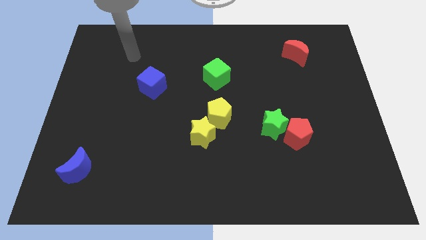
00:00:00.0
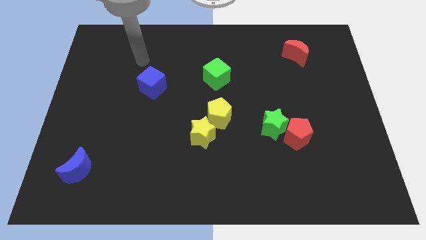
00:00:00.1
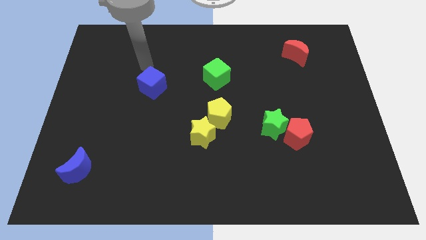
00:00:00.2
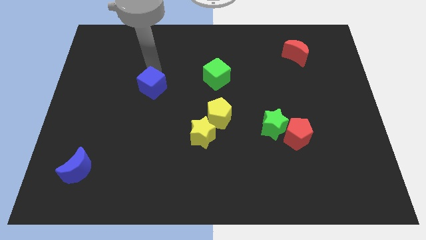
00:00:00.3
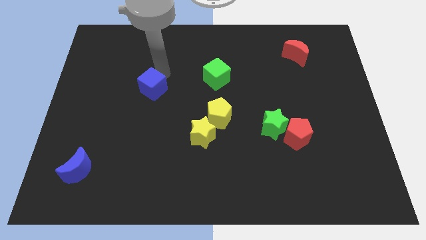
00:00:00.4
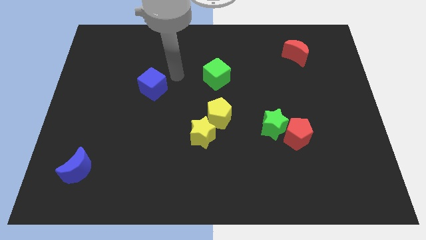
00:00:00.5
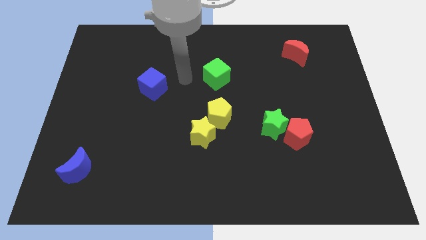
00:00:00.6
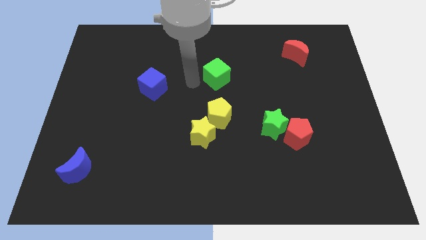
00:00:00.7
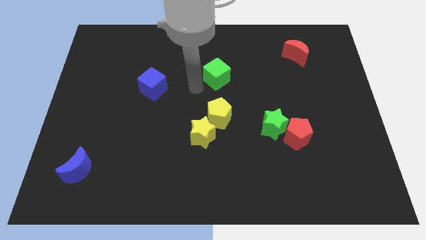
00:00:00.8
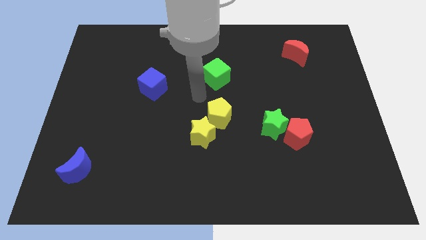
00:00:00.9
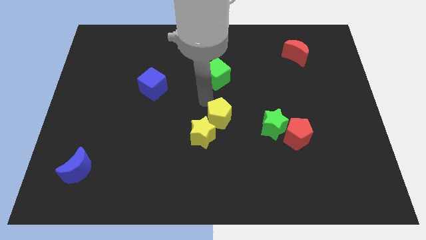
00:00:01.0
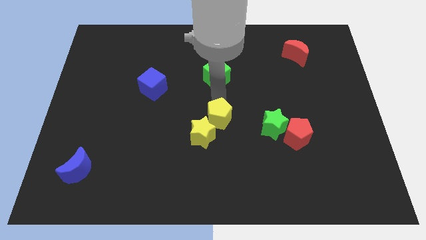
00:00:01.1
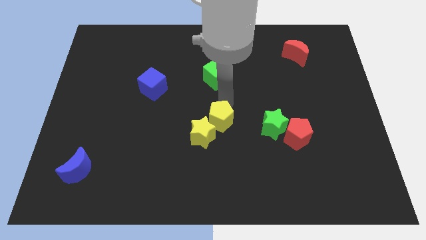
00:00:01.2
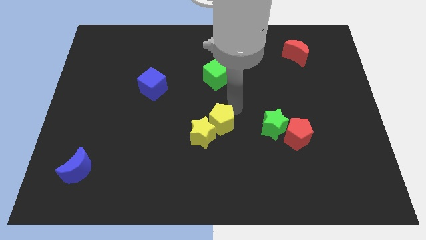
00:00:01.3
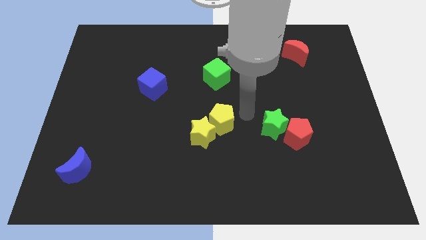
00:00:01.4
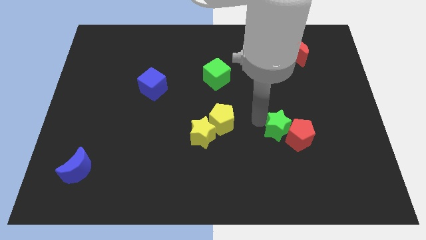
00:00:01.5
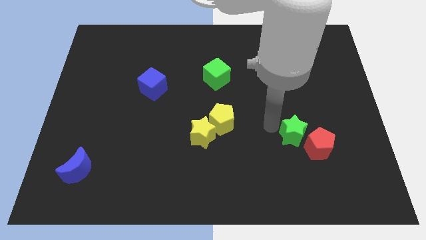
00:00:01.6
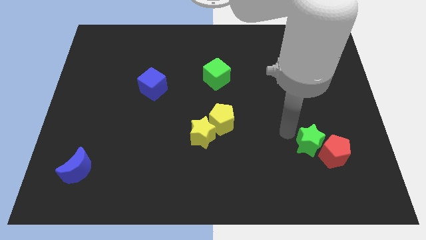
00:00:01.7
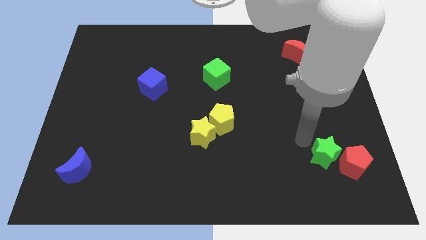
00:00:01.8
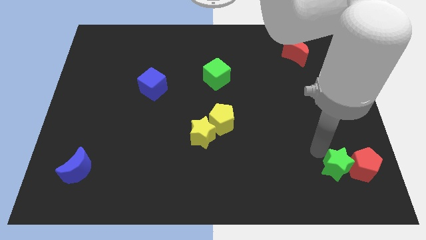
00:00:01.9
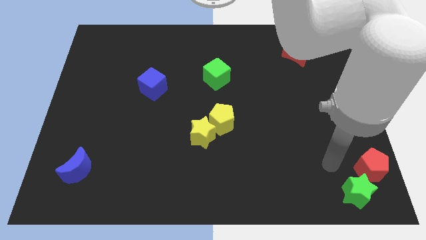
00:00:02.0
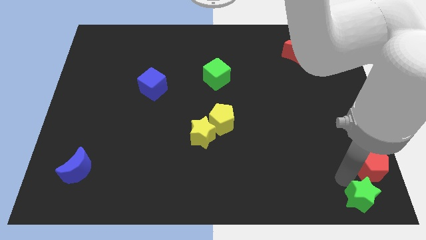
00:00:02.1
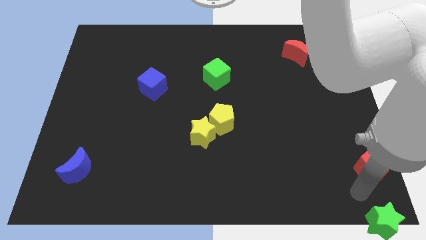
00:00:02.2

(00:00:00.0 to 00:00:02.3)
move the red pentagon away from the green star

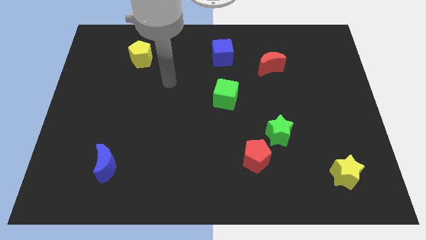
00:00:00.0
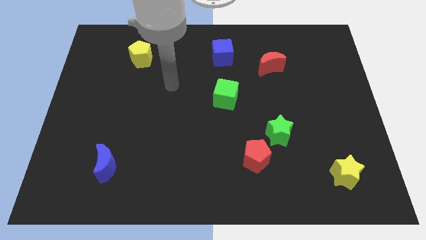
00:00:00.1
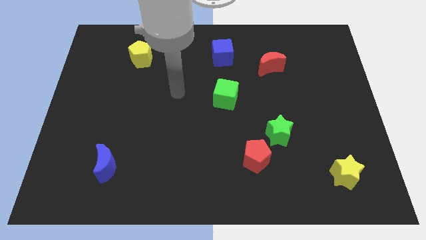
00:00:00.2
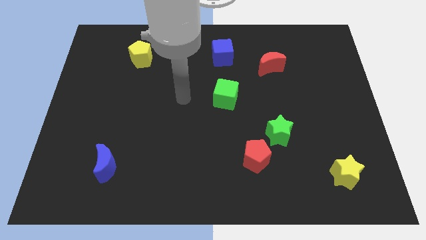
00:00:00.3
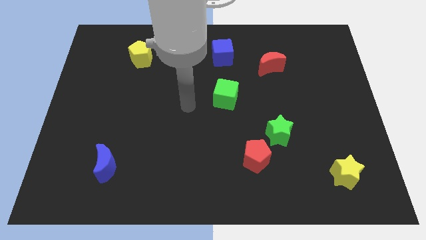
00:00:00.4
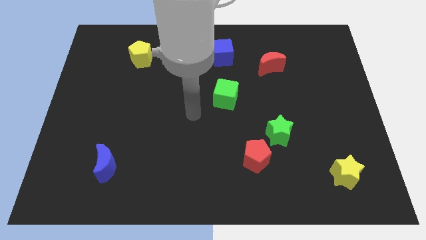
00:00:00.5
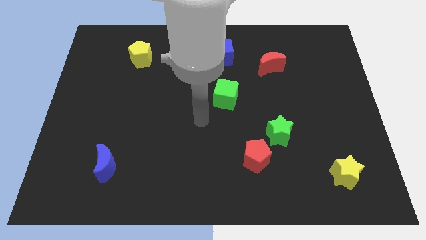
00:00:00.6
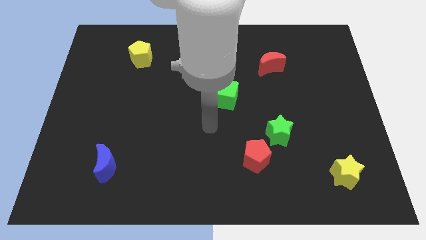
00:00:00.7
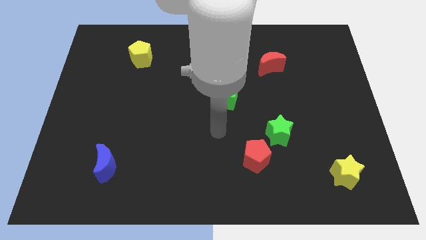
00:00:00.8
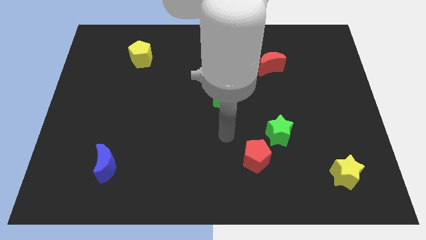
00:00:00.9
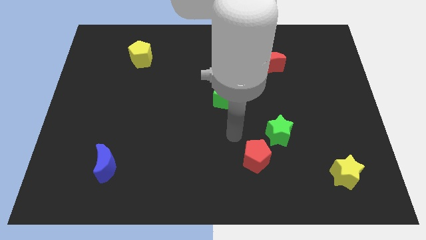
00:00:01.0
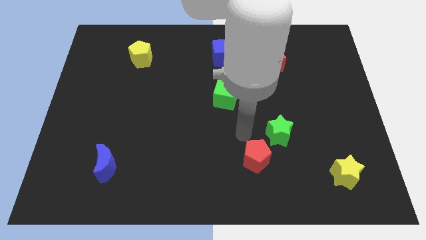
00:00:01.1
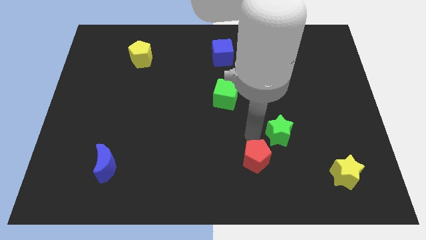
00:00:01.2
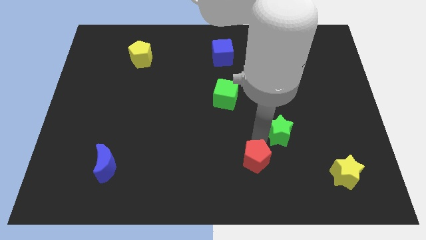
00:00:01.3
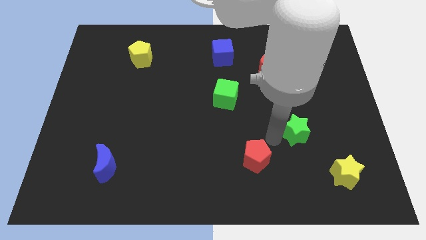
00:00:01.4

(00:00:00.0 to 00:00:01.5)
separate the red pentagon from the green star

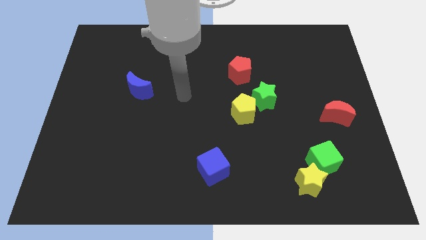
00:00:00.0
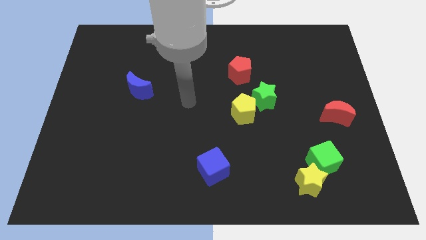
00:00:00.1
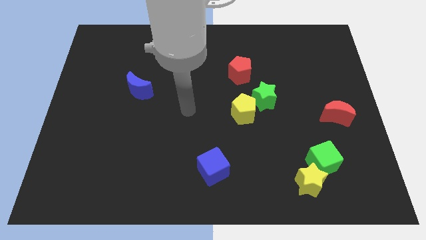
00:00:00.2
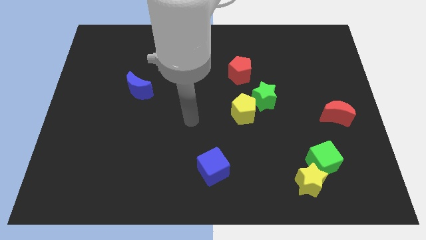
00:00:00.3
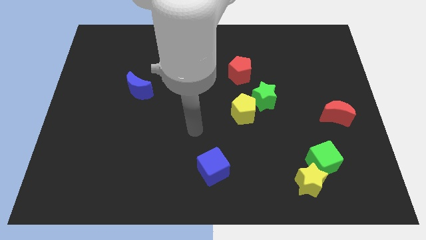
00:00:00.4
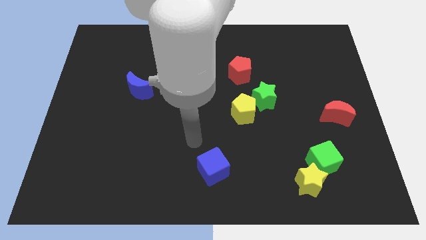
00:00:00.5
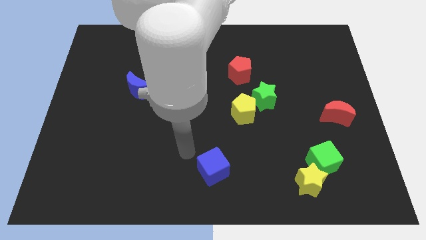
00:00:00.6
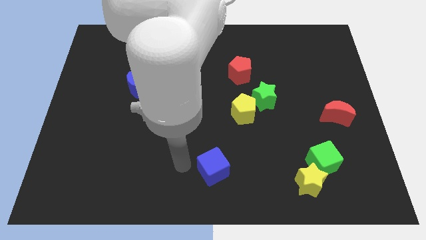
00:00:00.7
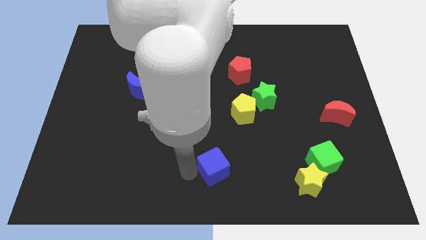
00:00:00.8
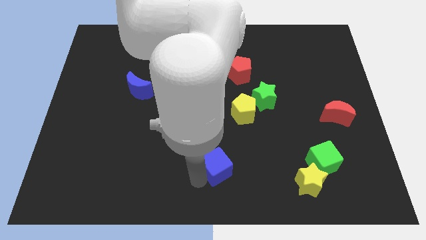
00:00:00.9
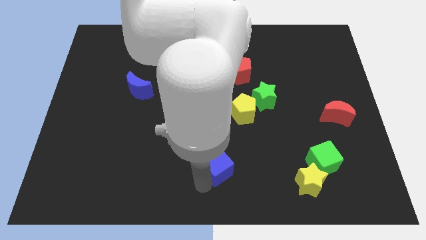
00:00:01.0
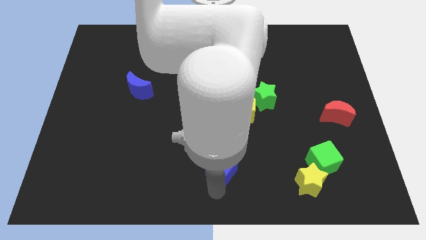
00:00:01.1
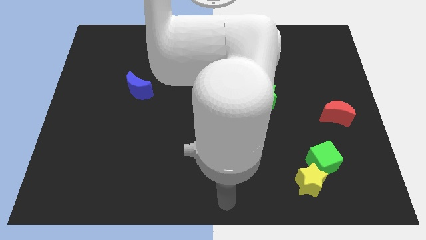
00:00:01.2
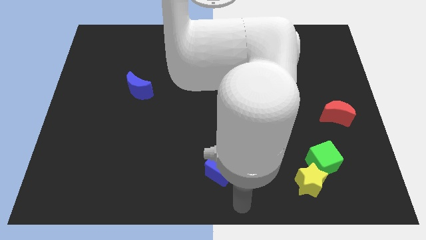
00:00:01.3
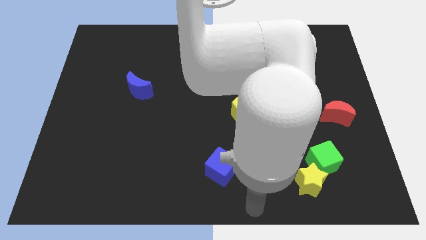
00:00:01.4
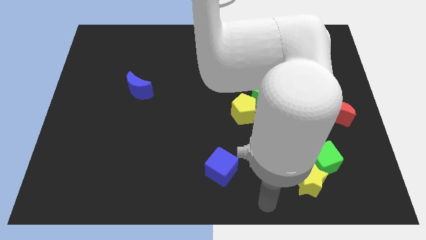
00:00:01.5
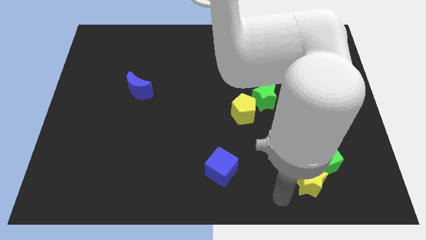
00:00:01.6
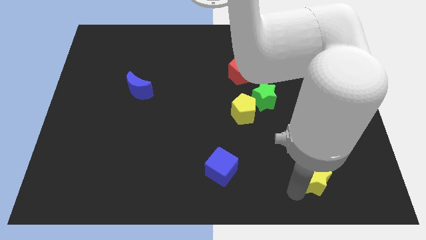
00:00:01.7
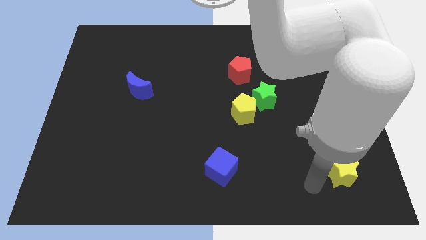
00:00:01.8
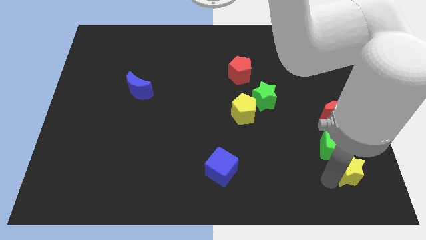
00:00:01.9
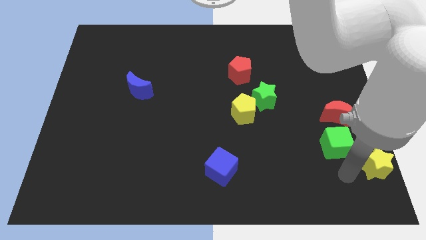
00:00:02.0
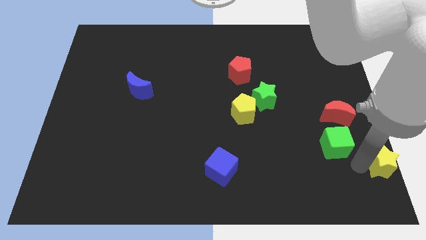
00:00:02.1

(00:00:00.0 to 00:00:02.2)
separate the green cube from the yellow star

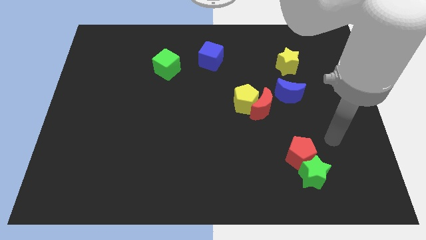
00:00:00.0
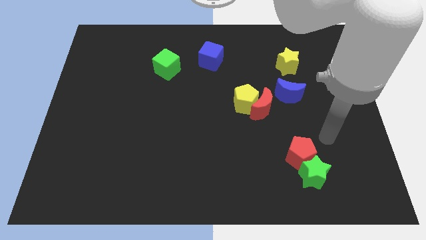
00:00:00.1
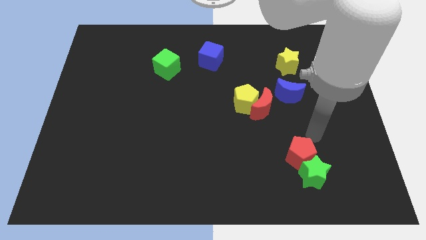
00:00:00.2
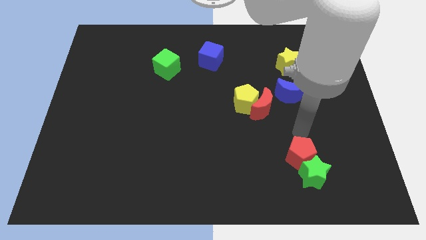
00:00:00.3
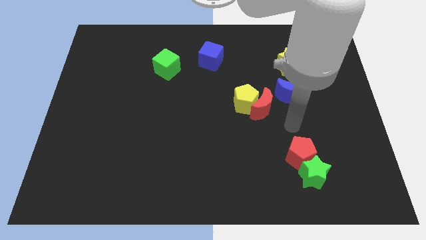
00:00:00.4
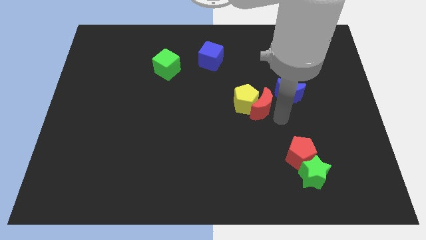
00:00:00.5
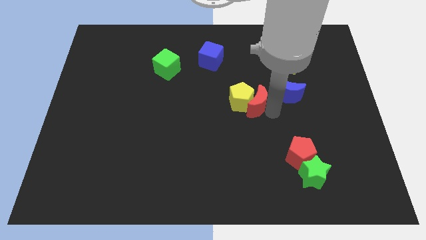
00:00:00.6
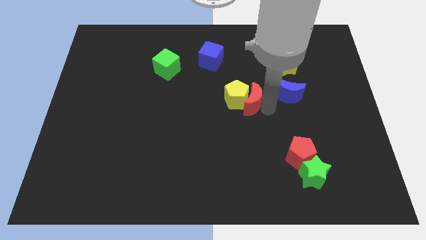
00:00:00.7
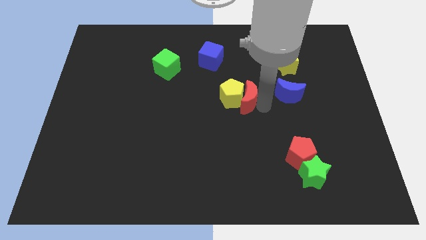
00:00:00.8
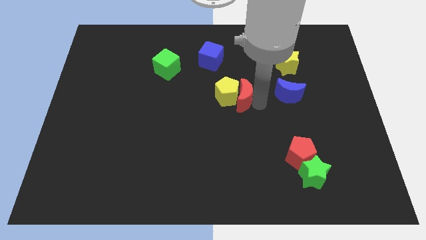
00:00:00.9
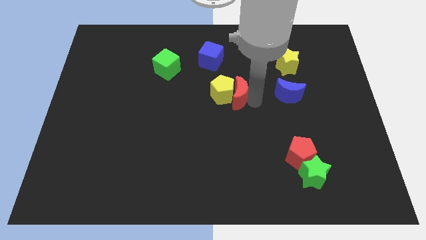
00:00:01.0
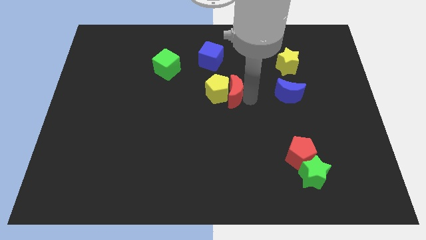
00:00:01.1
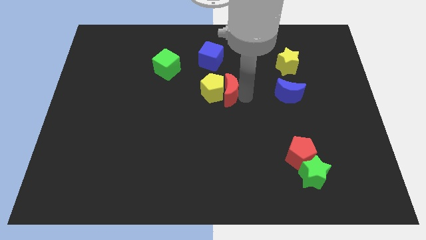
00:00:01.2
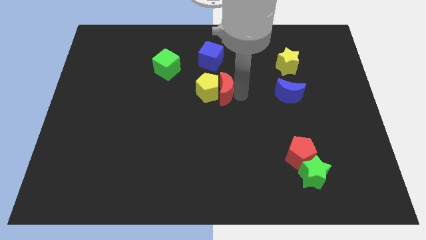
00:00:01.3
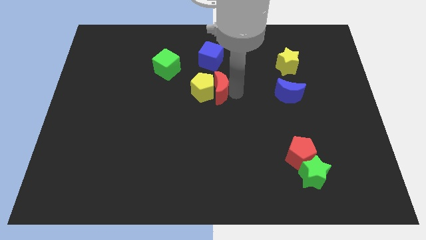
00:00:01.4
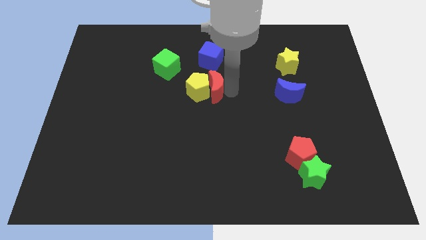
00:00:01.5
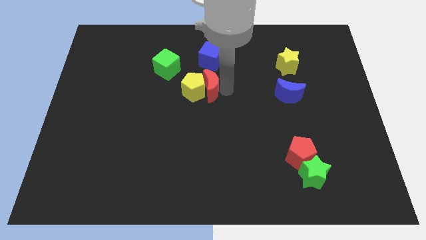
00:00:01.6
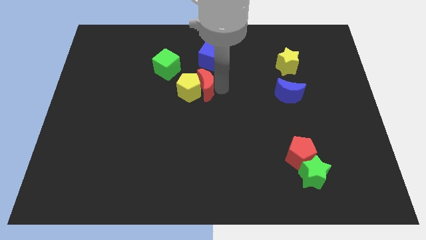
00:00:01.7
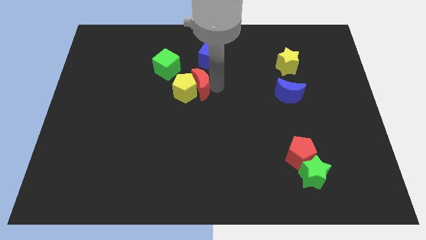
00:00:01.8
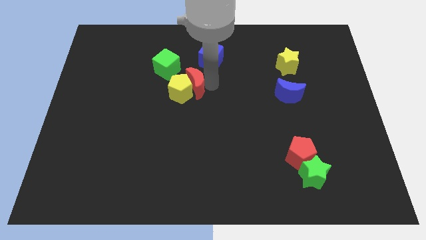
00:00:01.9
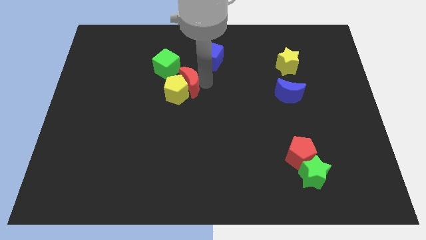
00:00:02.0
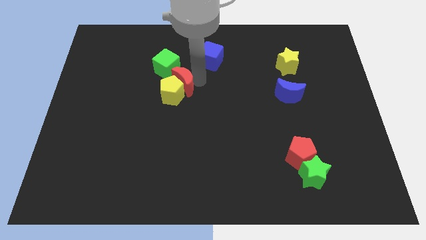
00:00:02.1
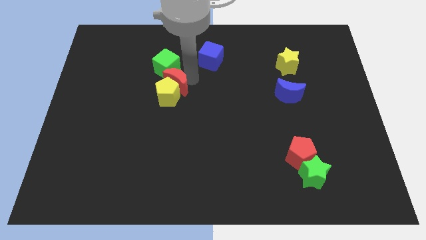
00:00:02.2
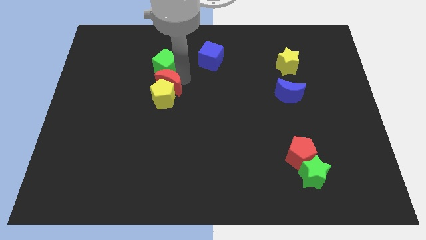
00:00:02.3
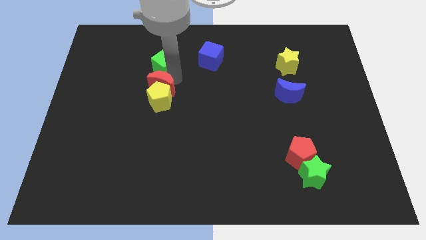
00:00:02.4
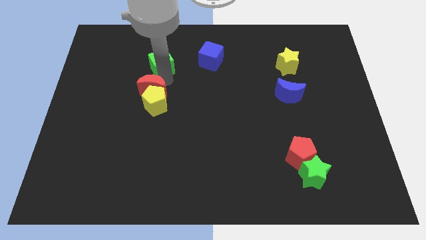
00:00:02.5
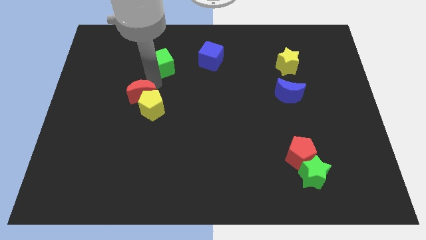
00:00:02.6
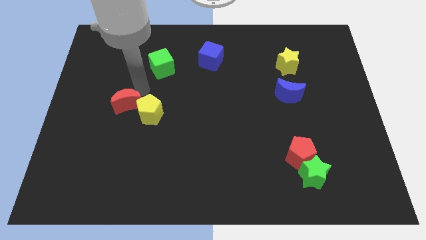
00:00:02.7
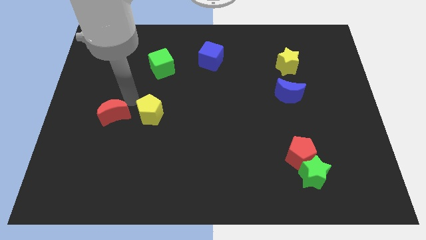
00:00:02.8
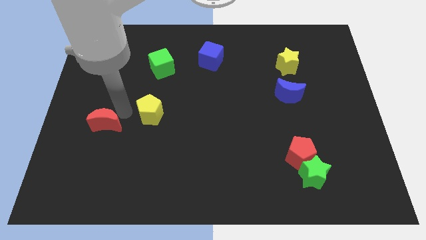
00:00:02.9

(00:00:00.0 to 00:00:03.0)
move the yellow pentagon away from the red moon

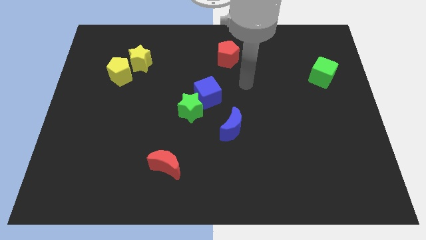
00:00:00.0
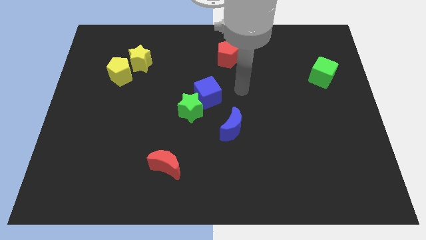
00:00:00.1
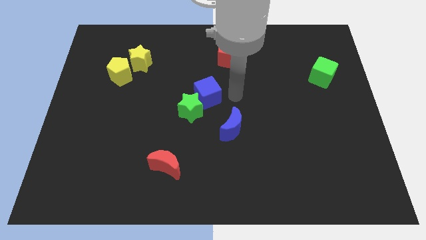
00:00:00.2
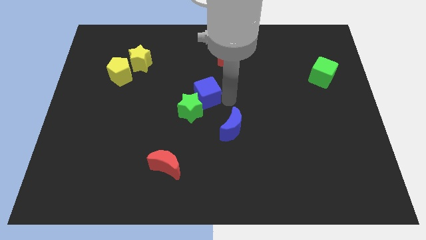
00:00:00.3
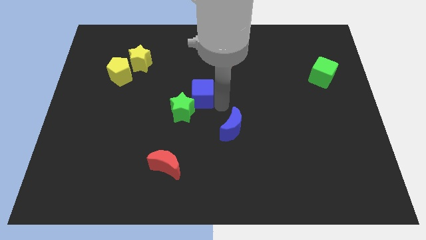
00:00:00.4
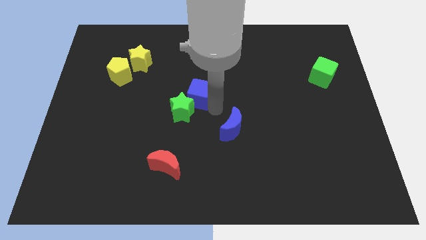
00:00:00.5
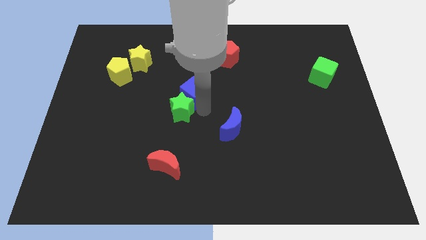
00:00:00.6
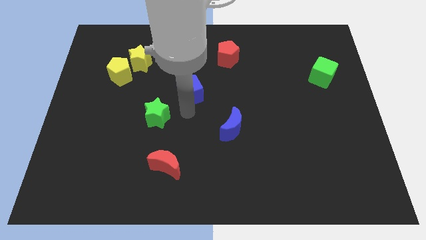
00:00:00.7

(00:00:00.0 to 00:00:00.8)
pull the blue cube apart from the green star